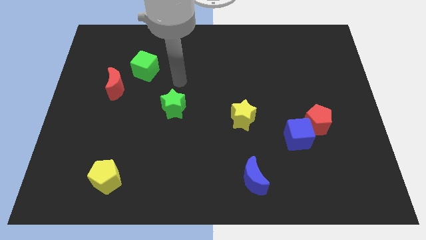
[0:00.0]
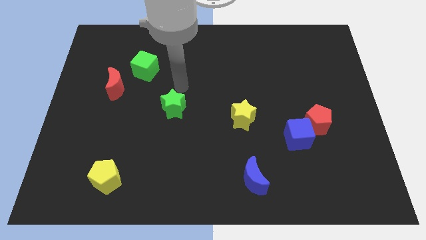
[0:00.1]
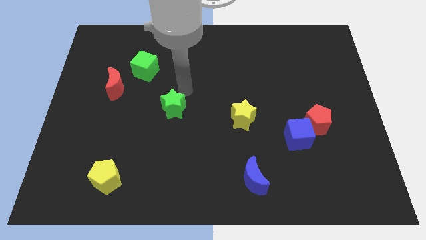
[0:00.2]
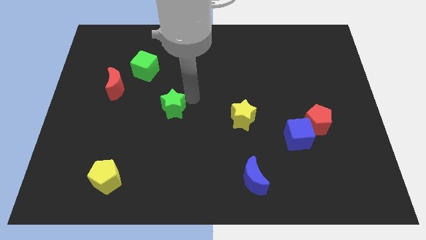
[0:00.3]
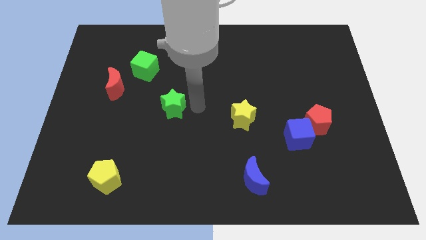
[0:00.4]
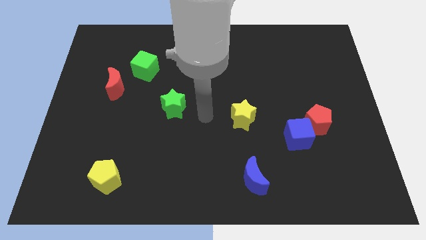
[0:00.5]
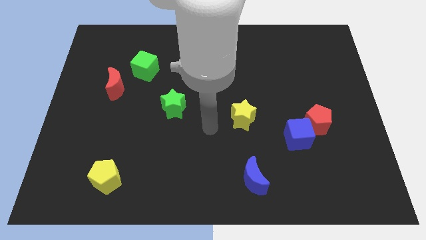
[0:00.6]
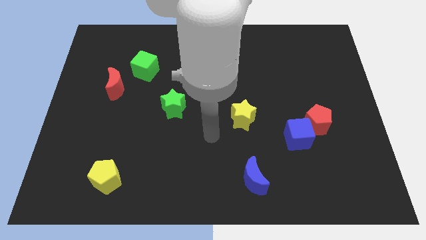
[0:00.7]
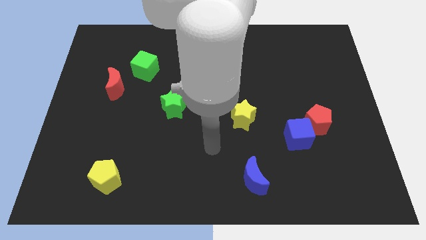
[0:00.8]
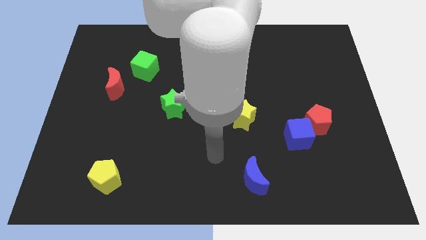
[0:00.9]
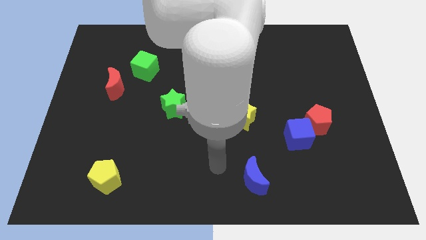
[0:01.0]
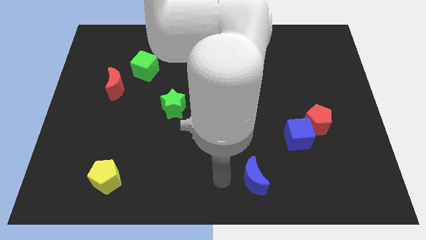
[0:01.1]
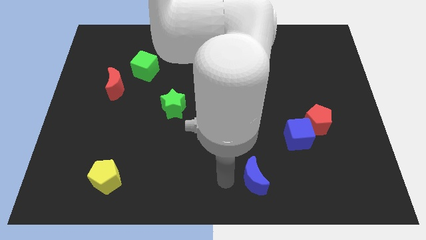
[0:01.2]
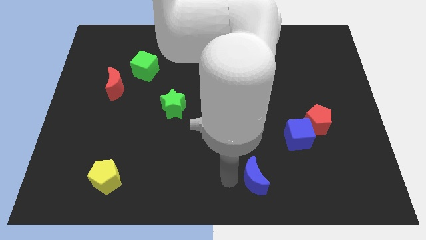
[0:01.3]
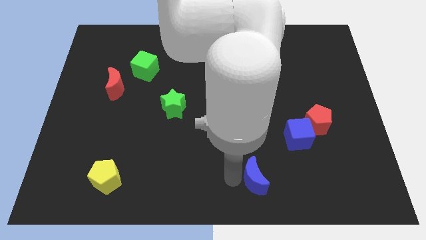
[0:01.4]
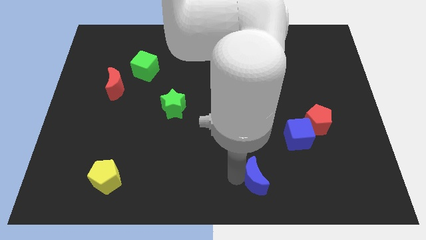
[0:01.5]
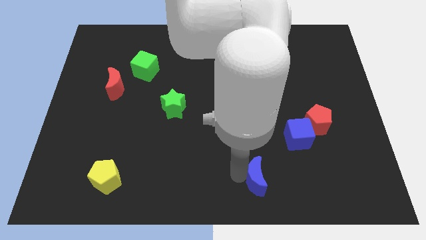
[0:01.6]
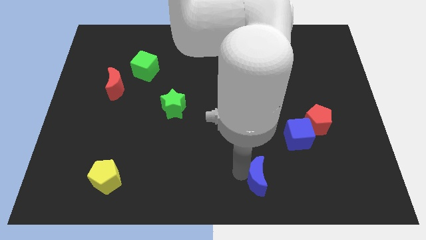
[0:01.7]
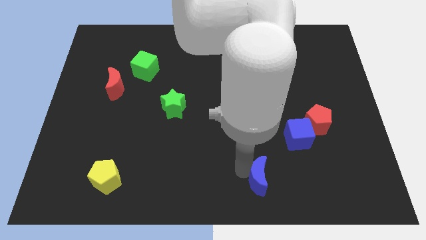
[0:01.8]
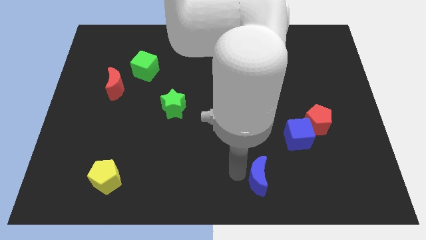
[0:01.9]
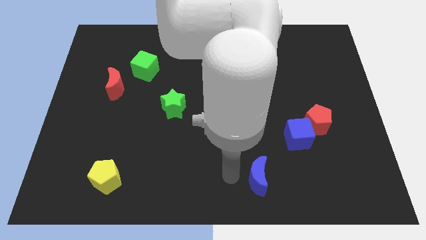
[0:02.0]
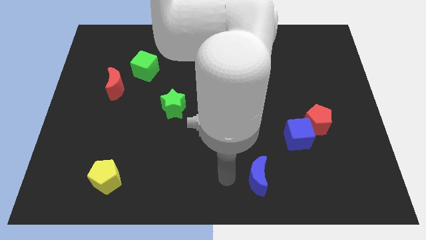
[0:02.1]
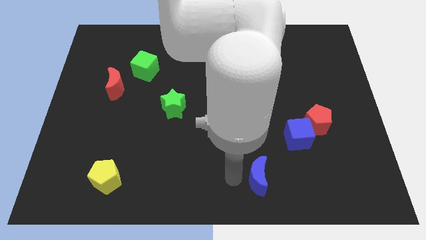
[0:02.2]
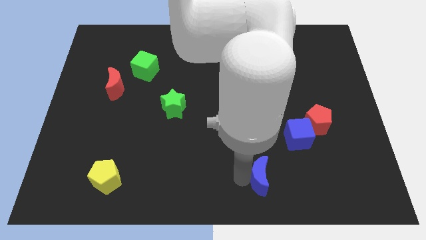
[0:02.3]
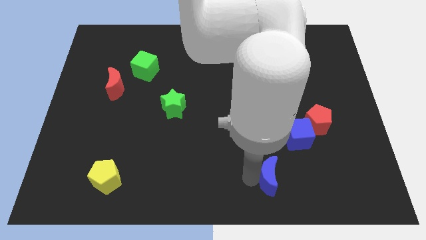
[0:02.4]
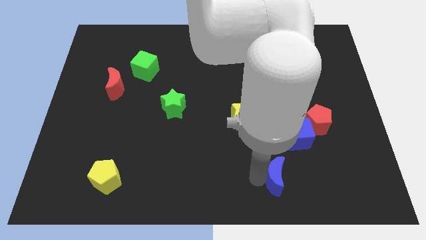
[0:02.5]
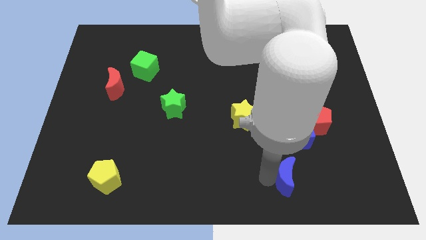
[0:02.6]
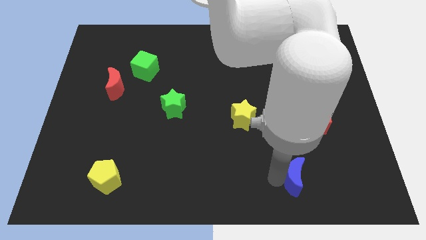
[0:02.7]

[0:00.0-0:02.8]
slide the blue moon right slightly

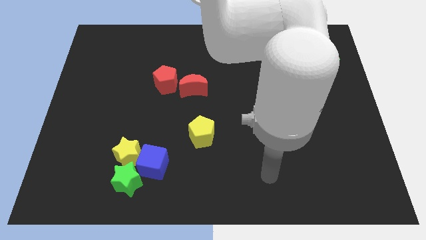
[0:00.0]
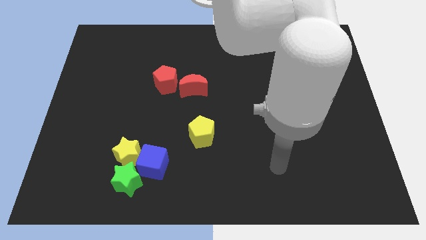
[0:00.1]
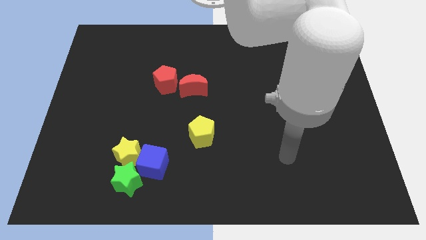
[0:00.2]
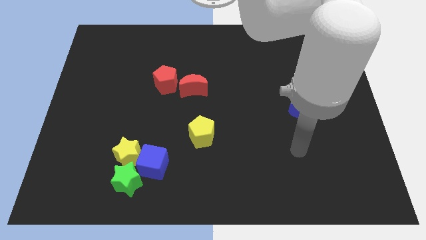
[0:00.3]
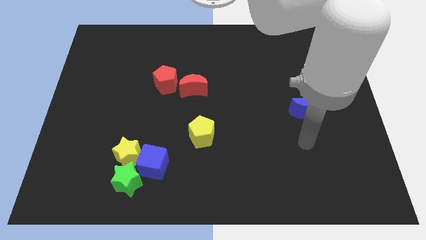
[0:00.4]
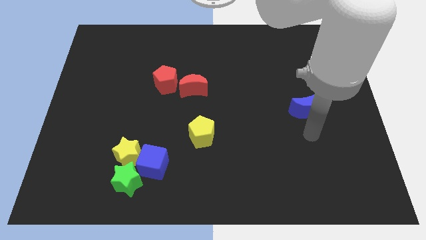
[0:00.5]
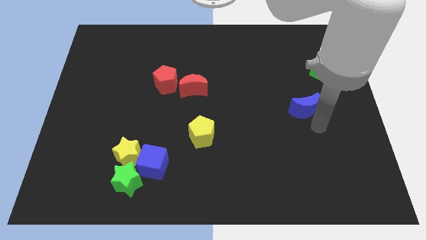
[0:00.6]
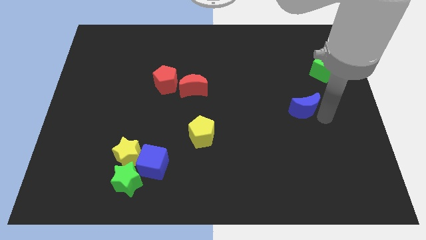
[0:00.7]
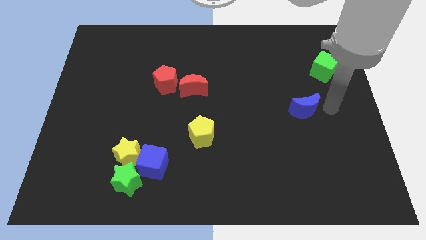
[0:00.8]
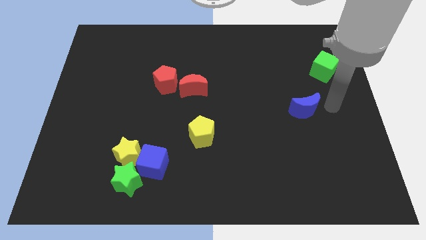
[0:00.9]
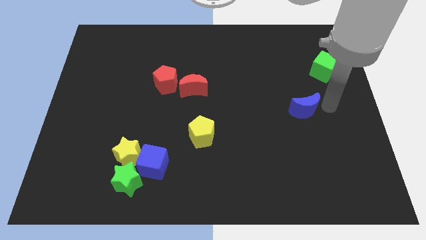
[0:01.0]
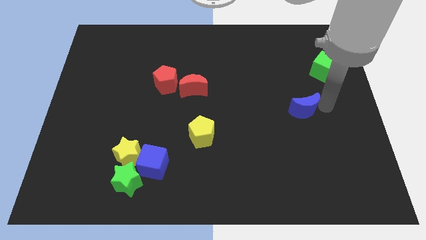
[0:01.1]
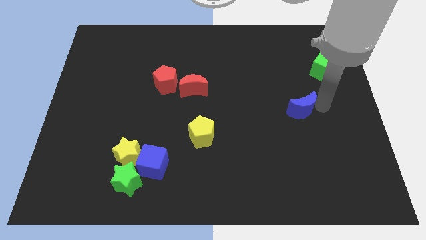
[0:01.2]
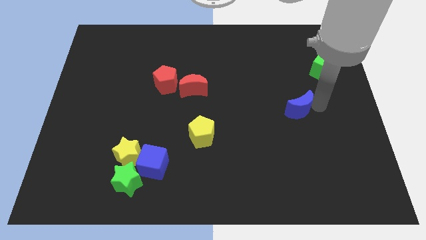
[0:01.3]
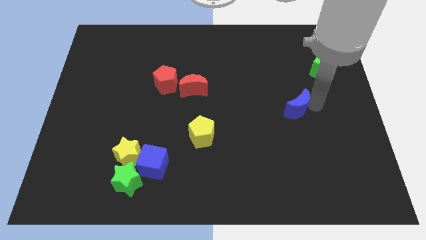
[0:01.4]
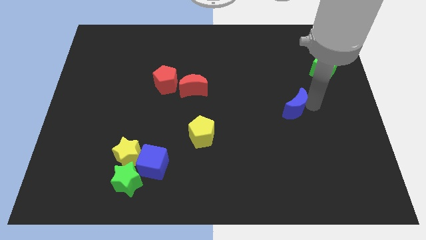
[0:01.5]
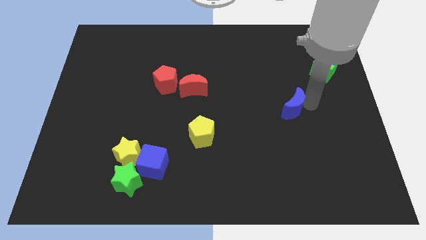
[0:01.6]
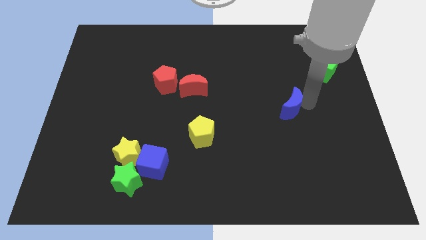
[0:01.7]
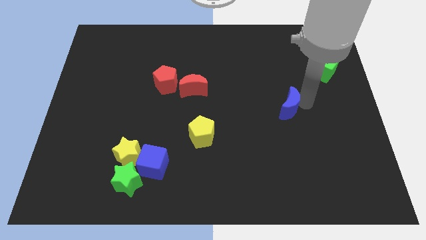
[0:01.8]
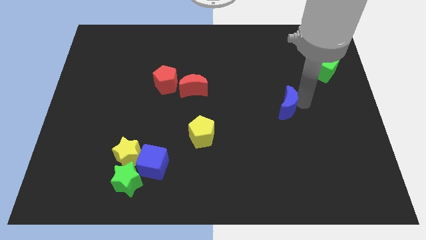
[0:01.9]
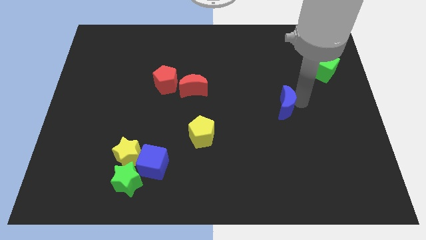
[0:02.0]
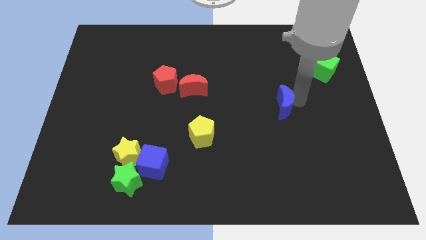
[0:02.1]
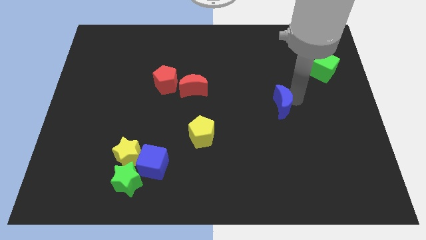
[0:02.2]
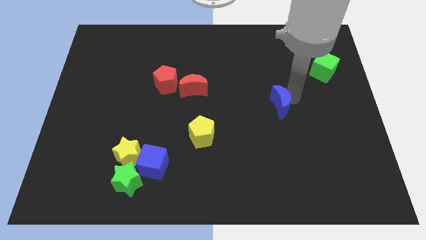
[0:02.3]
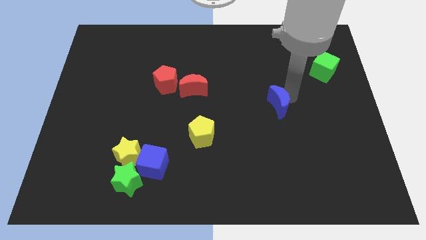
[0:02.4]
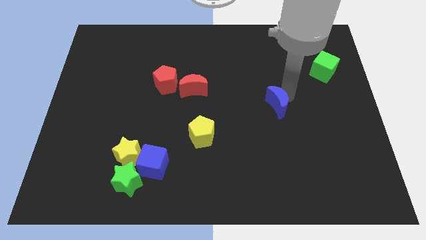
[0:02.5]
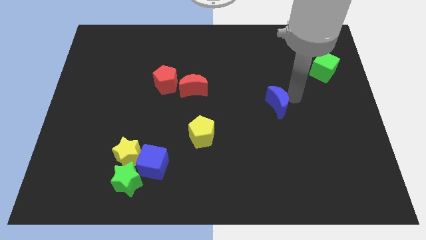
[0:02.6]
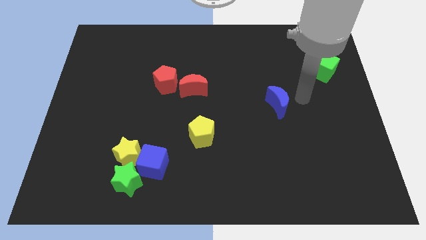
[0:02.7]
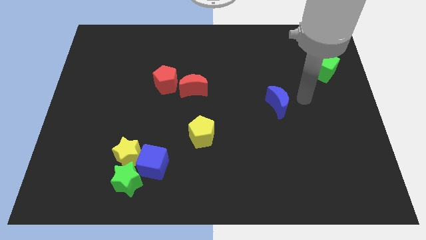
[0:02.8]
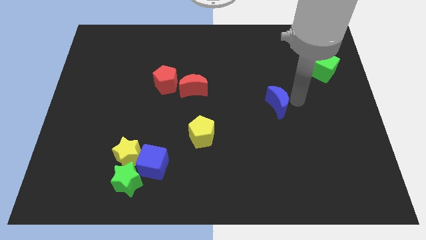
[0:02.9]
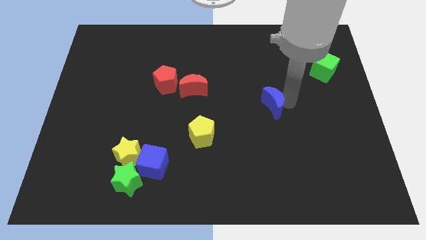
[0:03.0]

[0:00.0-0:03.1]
slide the blue moon a little left

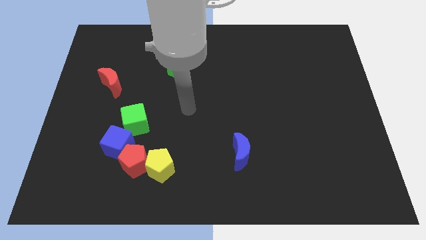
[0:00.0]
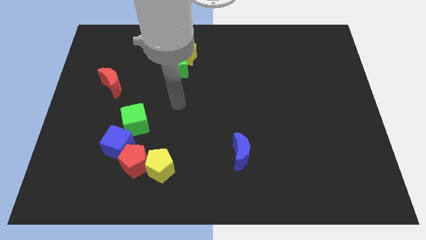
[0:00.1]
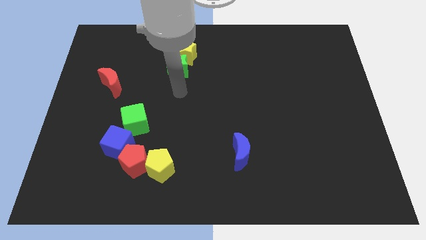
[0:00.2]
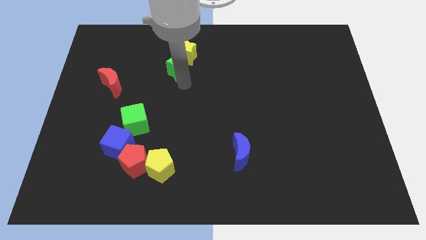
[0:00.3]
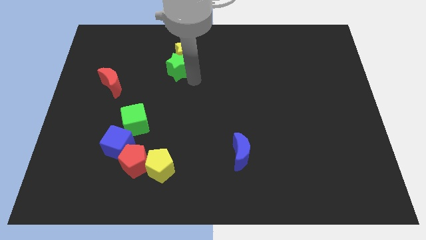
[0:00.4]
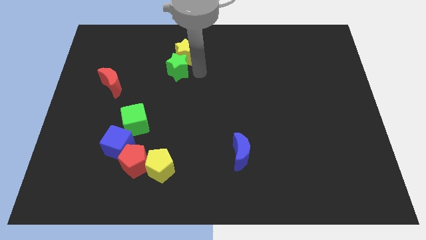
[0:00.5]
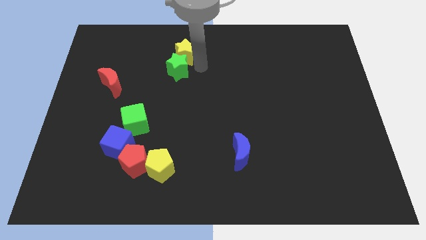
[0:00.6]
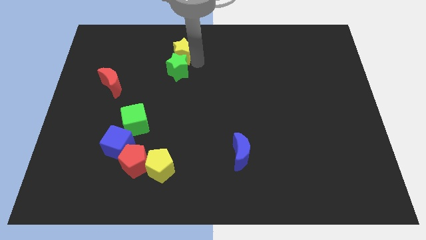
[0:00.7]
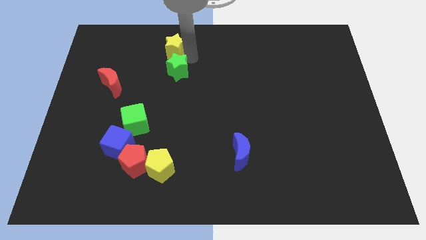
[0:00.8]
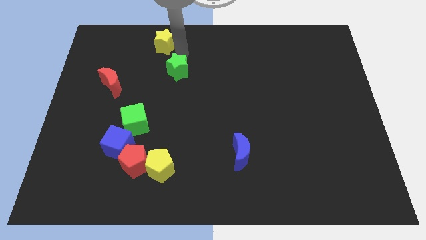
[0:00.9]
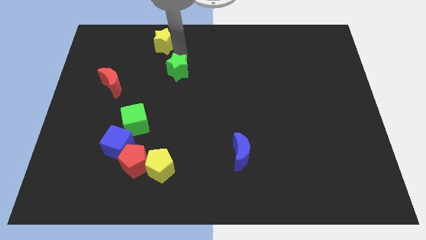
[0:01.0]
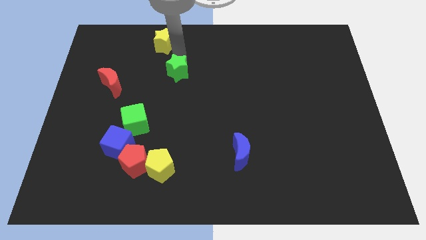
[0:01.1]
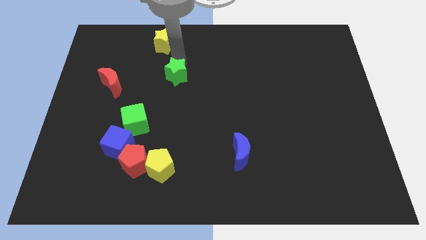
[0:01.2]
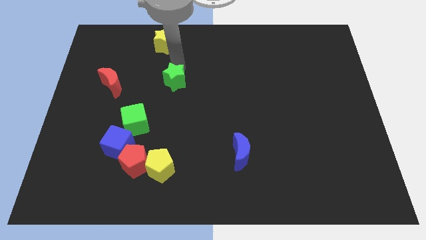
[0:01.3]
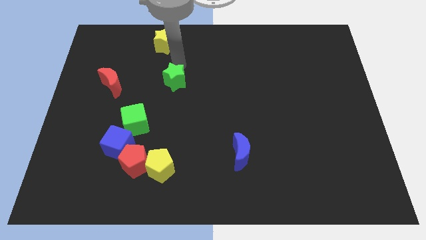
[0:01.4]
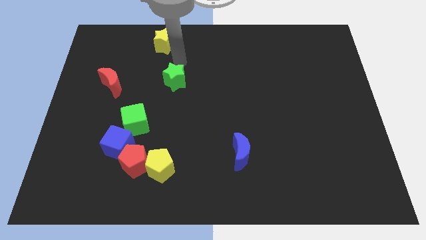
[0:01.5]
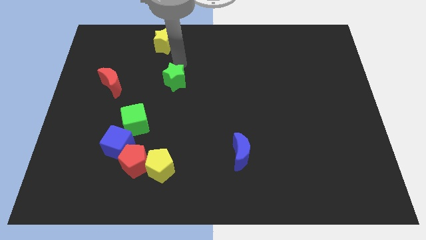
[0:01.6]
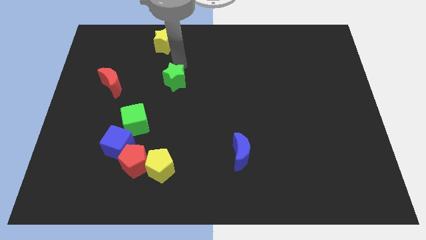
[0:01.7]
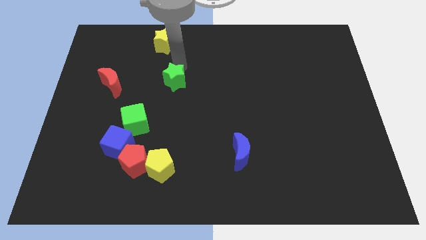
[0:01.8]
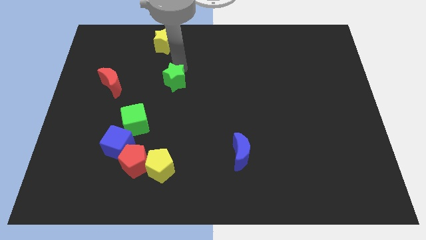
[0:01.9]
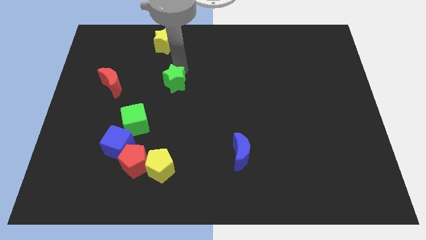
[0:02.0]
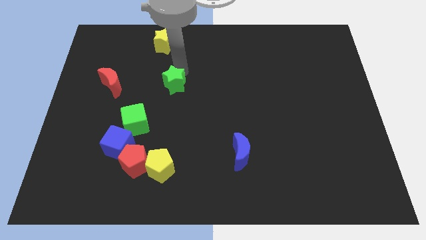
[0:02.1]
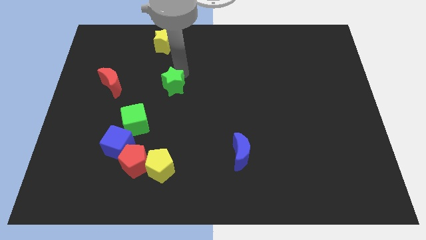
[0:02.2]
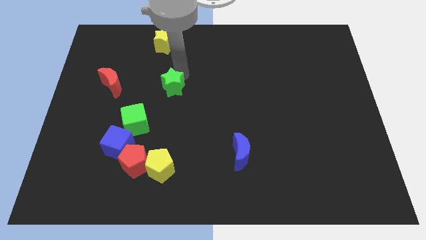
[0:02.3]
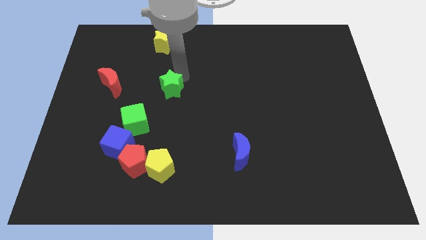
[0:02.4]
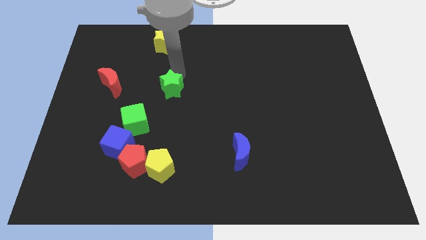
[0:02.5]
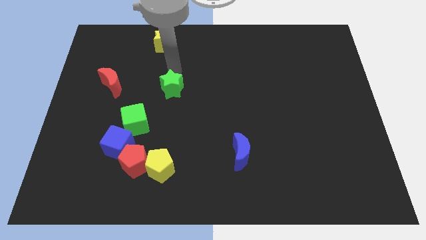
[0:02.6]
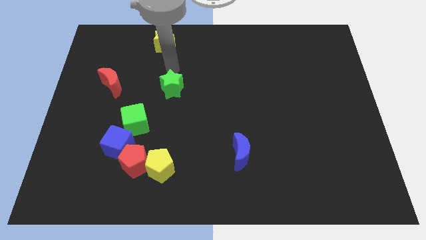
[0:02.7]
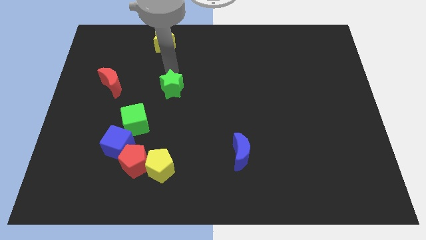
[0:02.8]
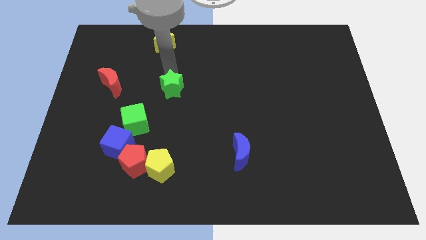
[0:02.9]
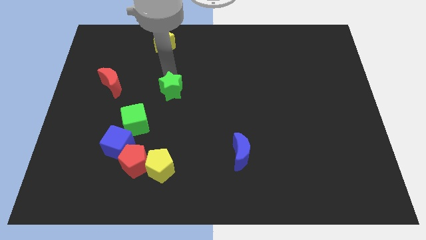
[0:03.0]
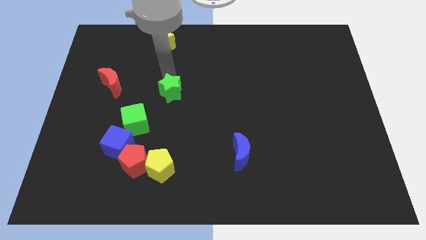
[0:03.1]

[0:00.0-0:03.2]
slide the green star a little bit down
